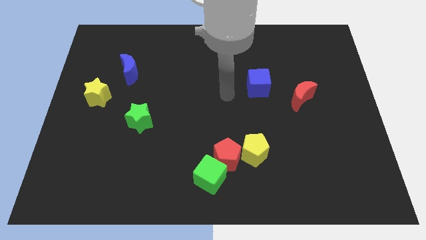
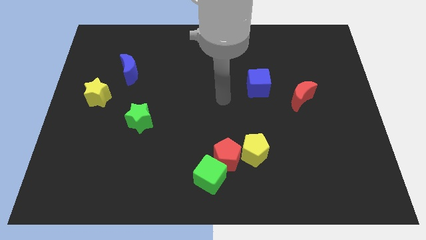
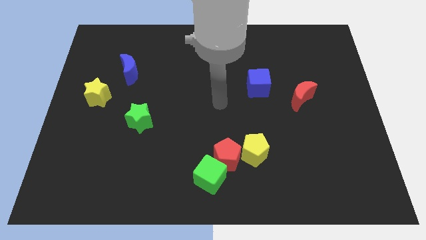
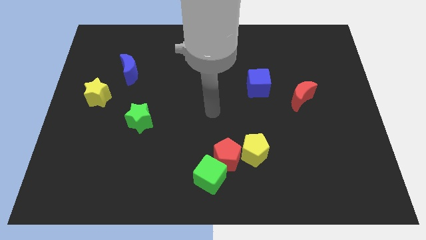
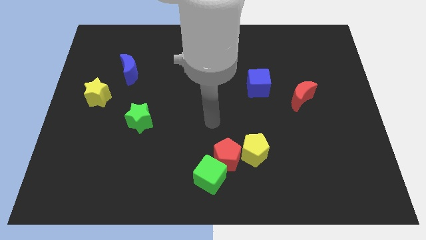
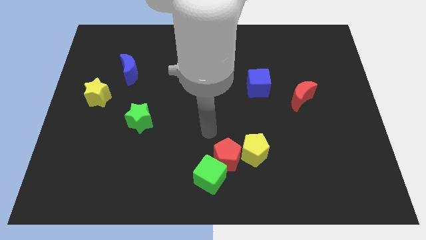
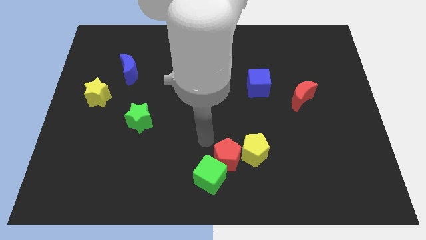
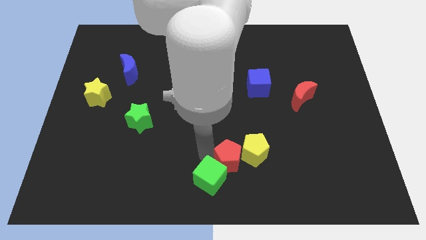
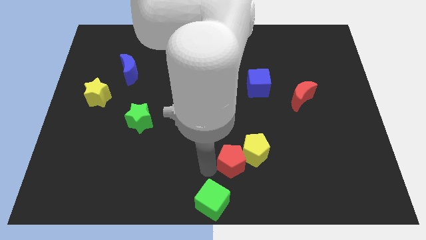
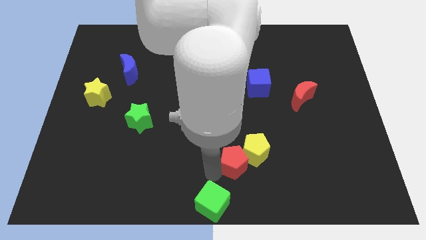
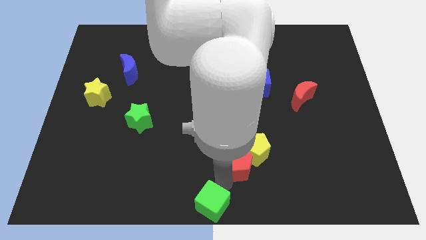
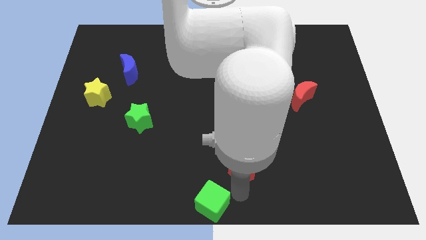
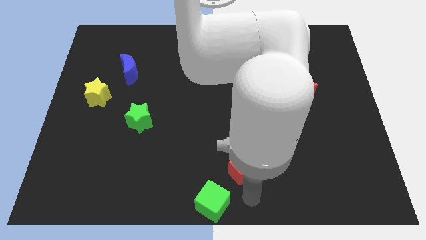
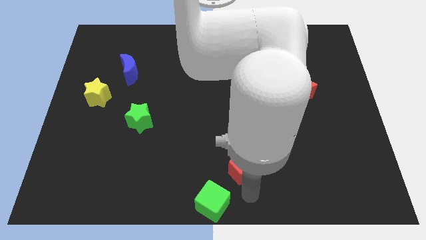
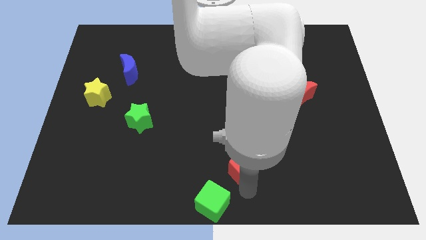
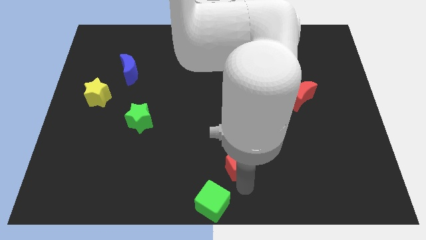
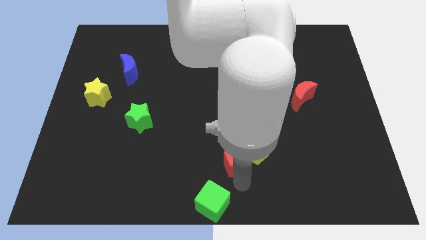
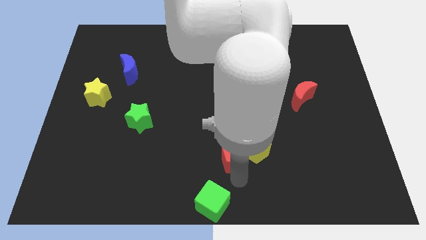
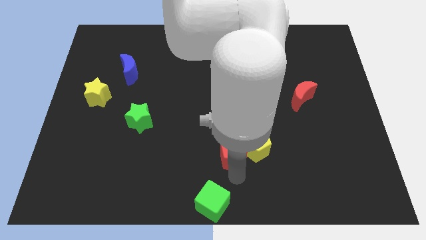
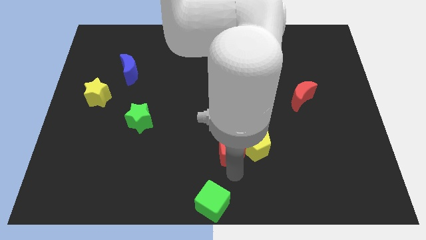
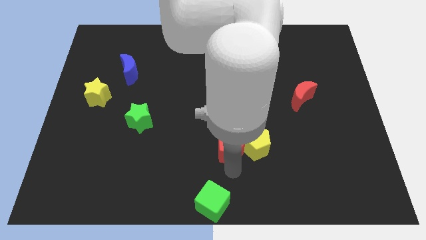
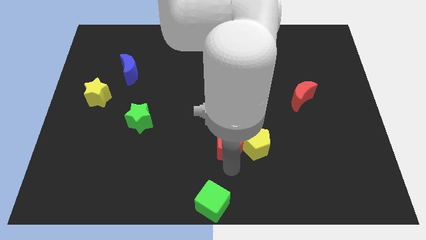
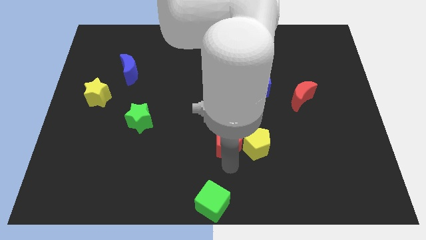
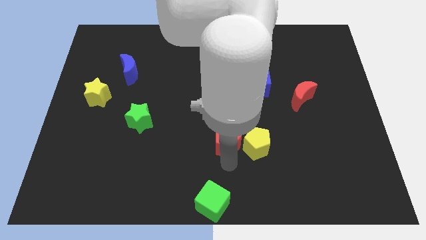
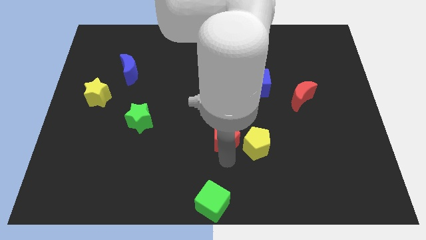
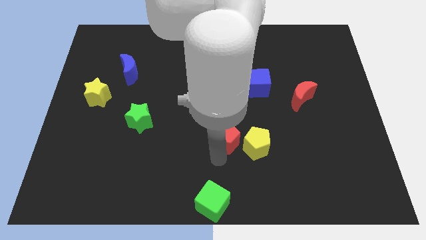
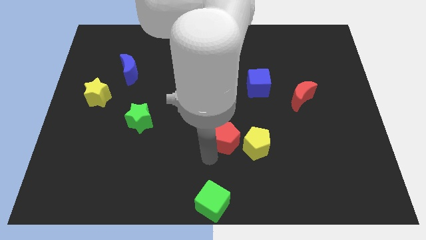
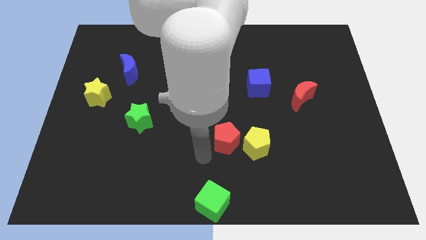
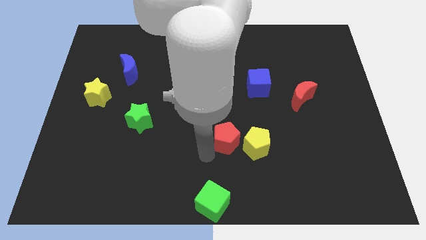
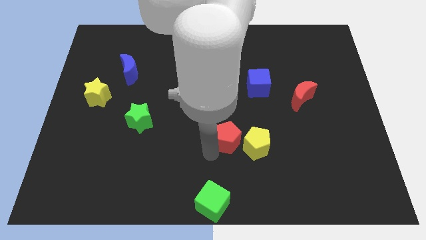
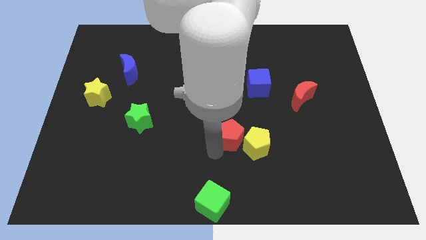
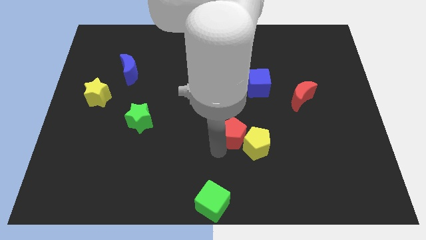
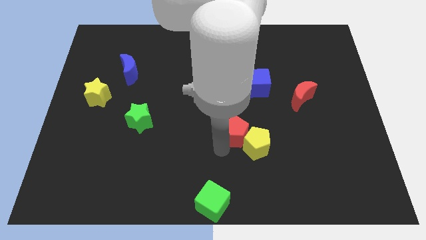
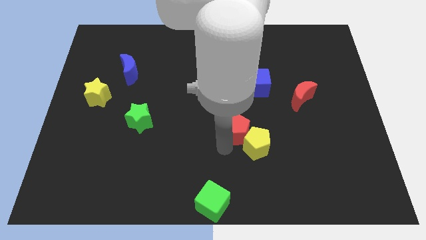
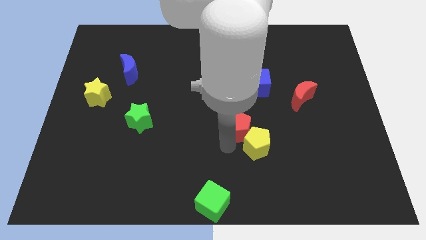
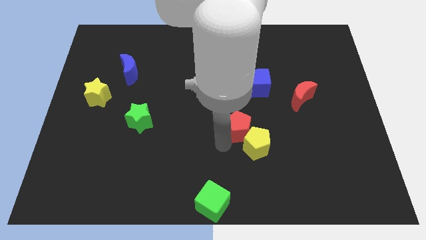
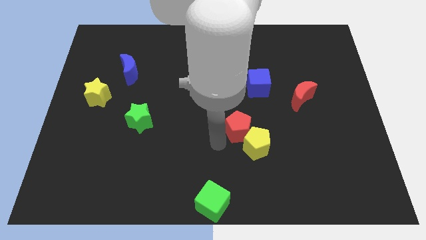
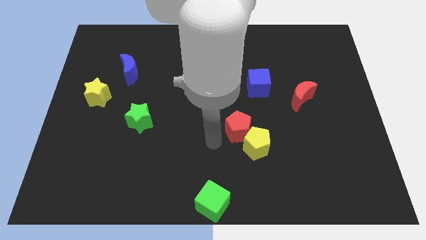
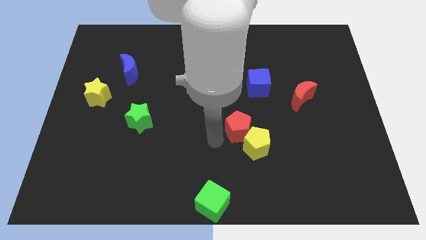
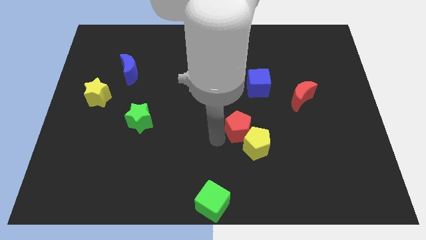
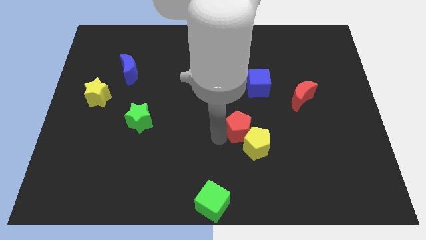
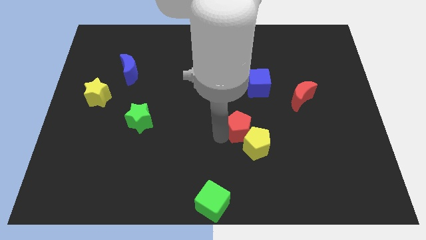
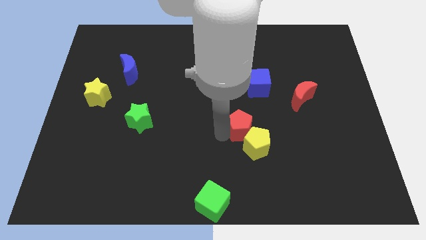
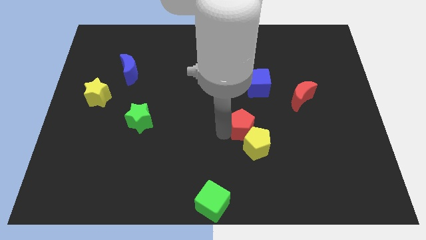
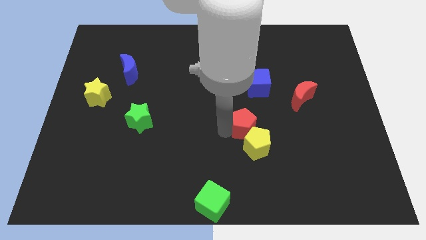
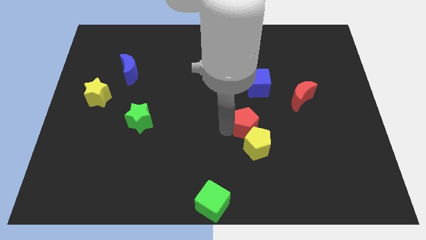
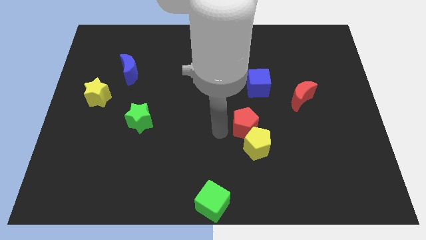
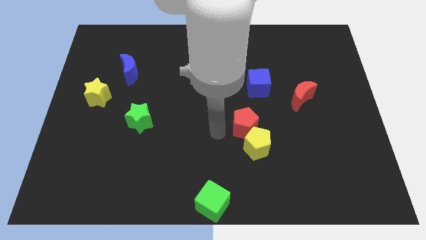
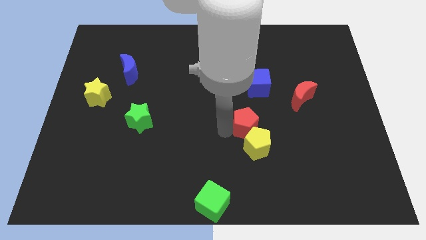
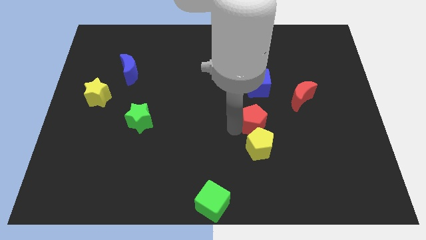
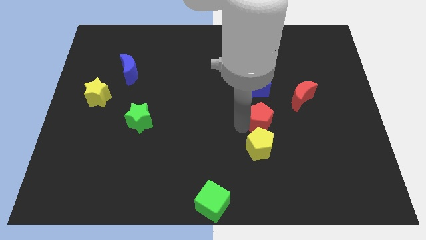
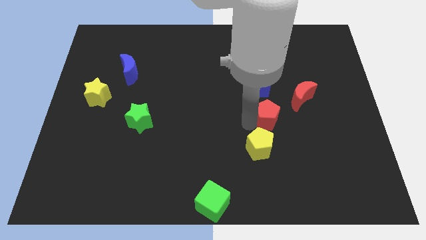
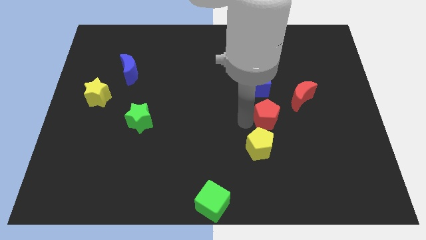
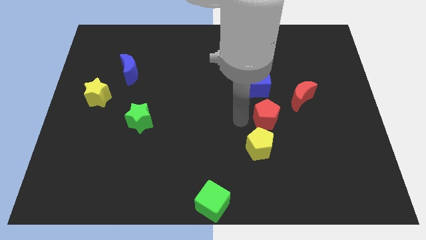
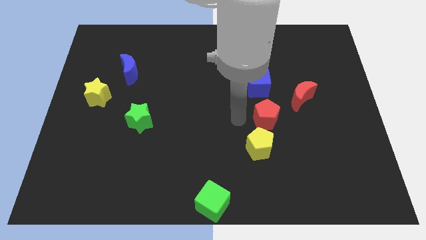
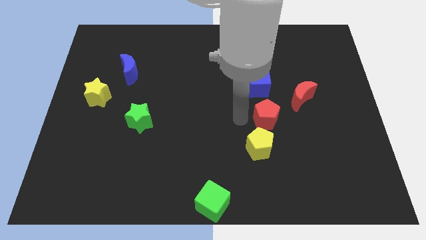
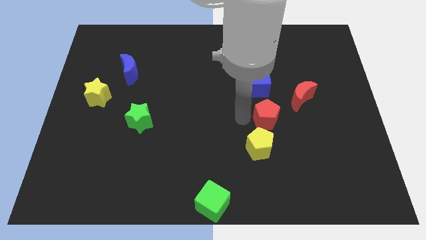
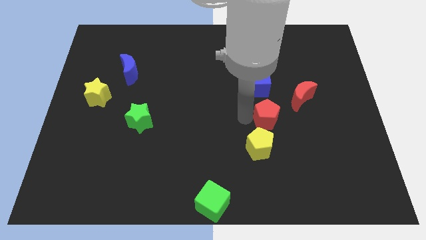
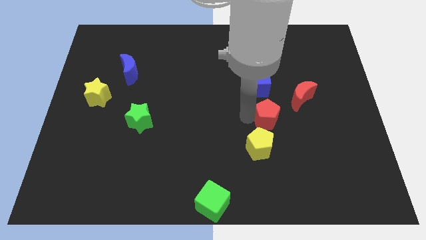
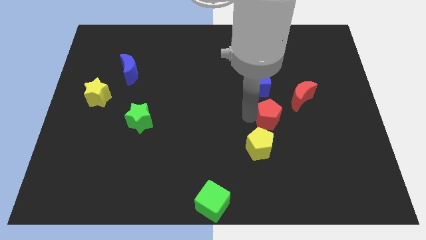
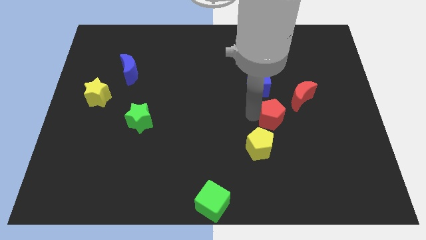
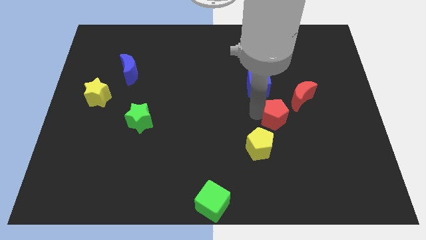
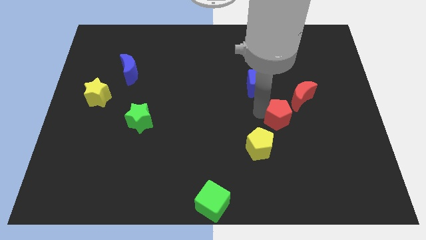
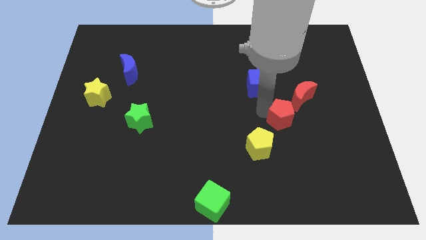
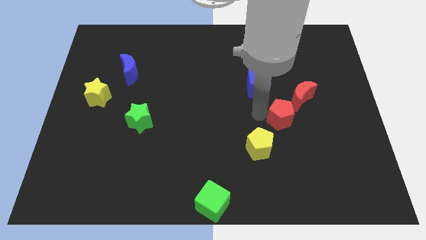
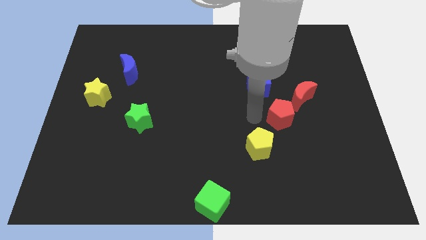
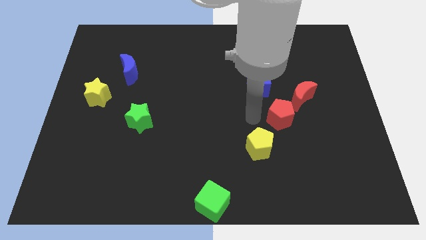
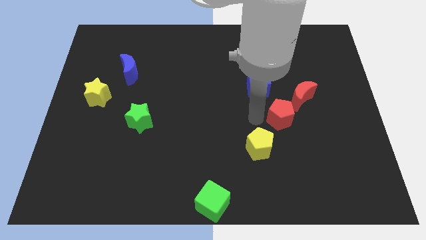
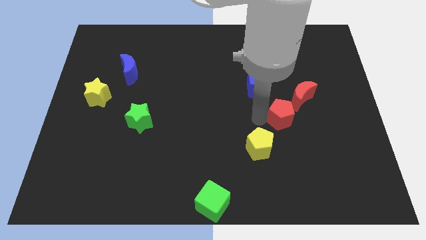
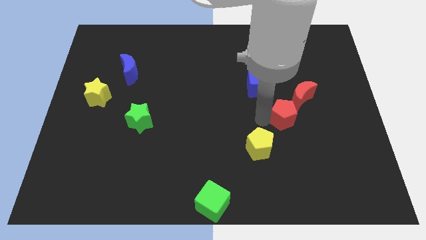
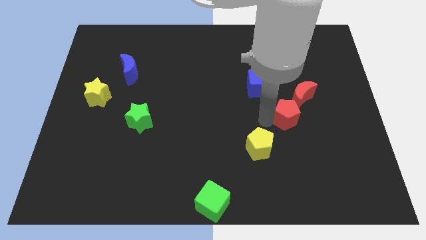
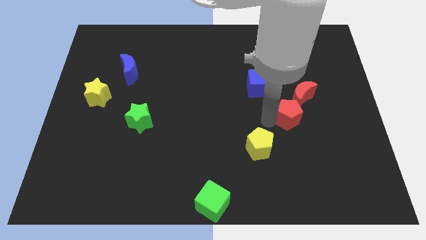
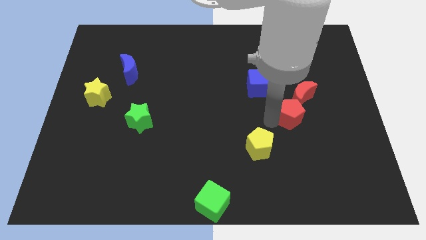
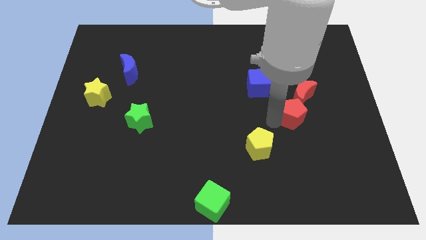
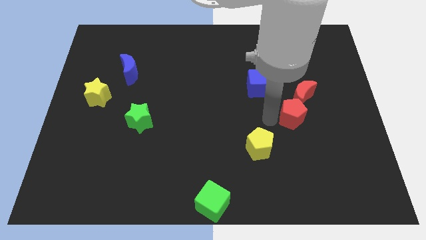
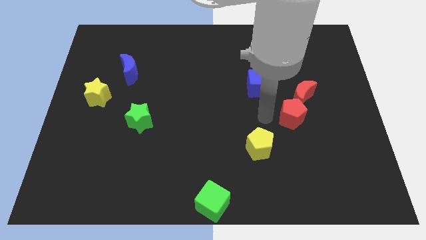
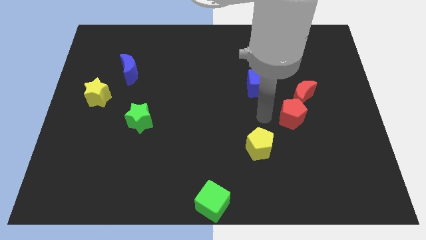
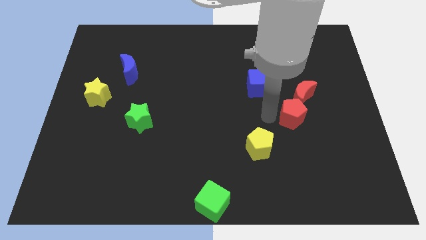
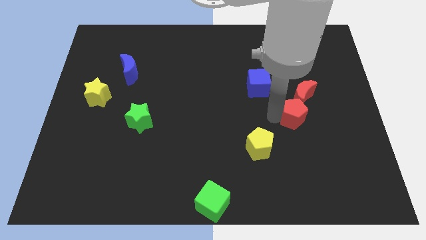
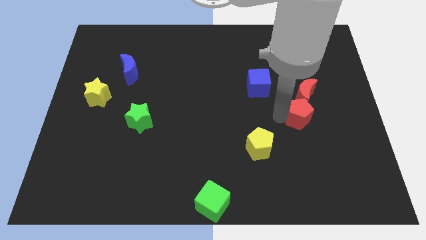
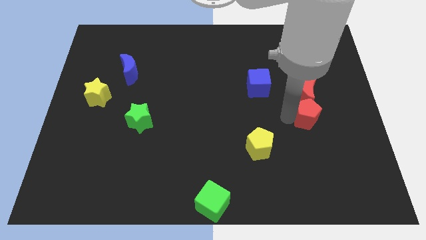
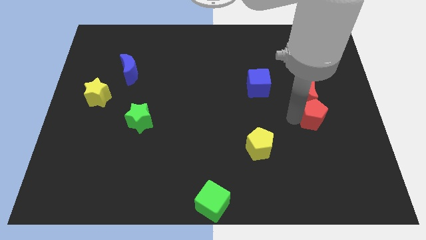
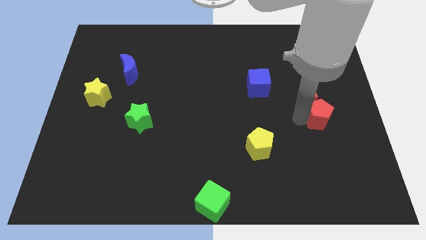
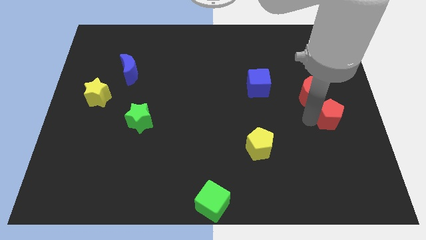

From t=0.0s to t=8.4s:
put the red pentagon to the right side
